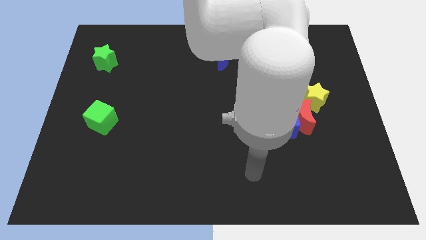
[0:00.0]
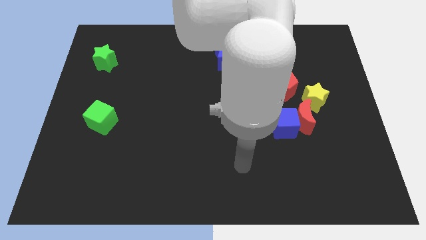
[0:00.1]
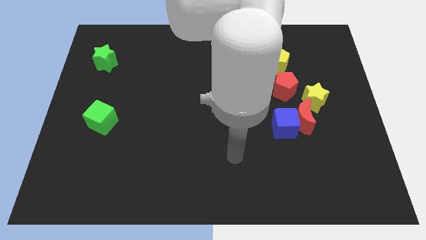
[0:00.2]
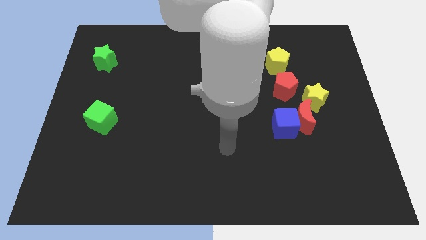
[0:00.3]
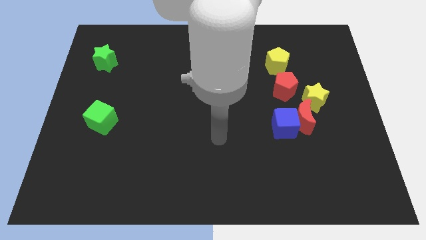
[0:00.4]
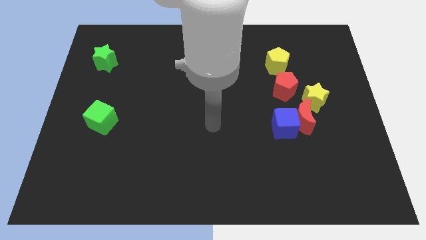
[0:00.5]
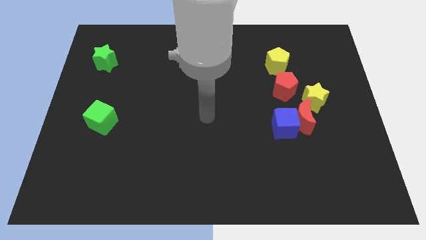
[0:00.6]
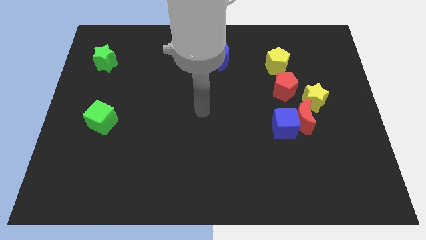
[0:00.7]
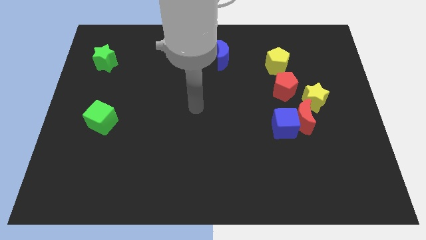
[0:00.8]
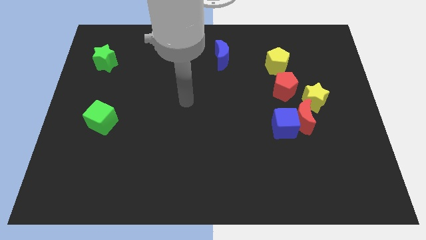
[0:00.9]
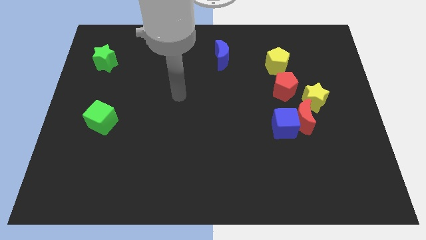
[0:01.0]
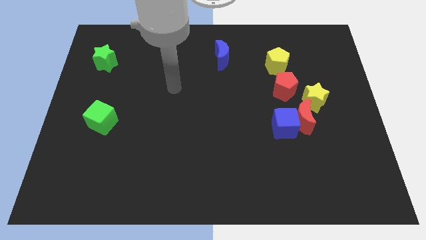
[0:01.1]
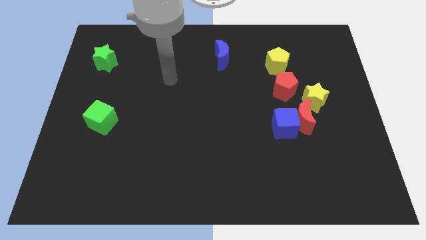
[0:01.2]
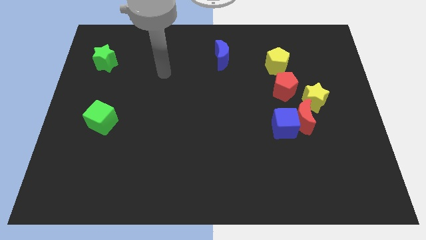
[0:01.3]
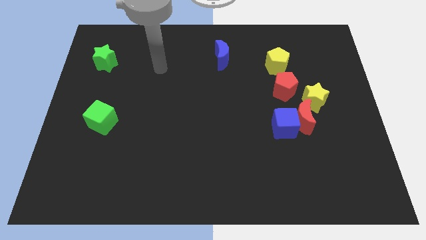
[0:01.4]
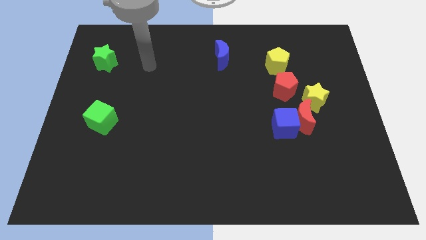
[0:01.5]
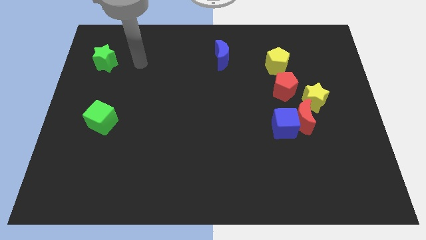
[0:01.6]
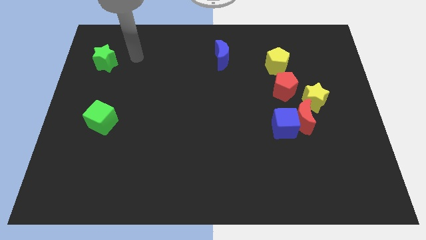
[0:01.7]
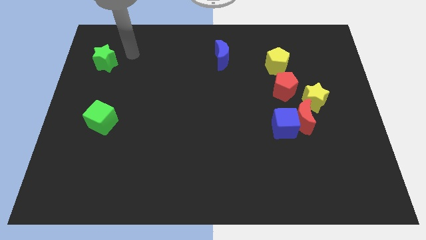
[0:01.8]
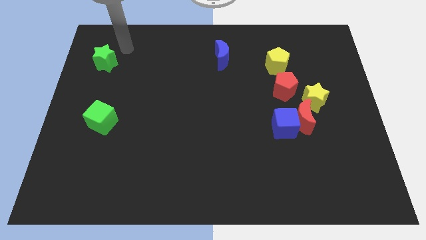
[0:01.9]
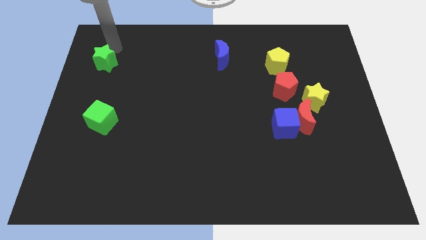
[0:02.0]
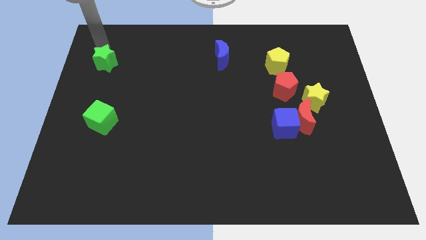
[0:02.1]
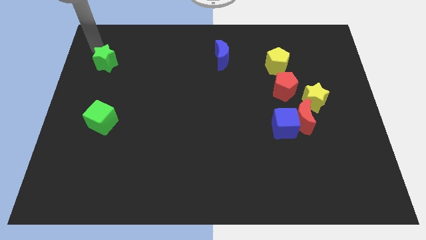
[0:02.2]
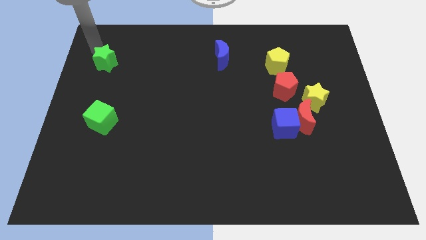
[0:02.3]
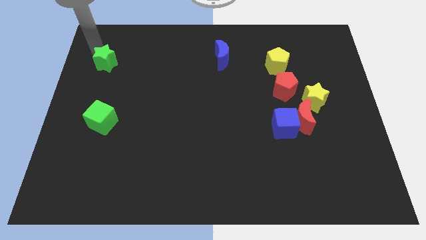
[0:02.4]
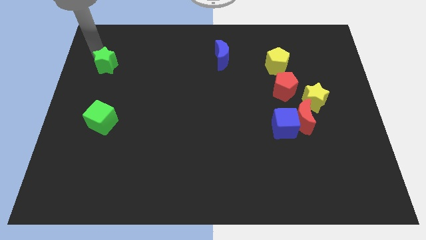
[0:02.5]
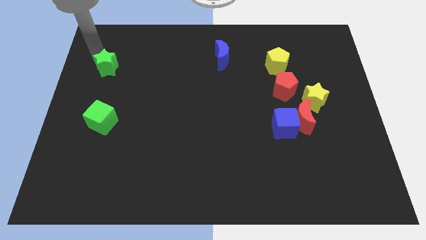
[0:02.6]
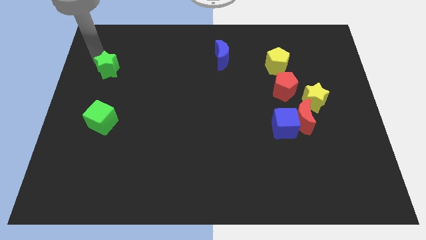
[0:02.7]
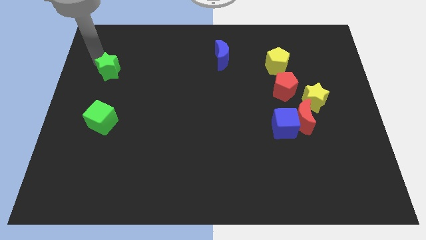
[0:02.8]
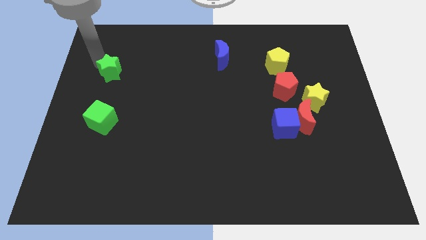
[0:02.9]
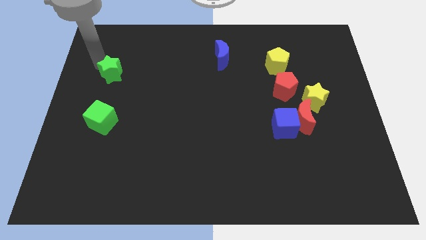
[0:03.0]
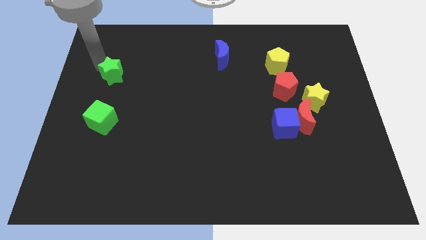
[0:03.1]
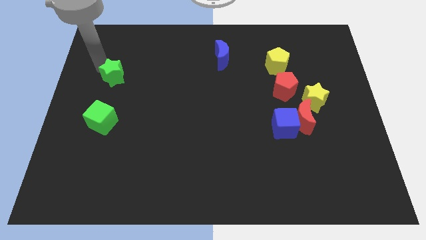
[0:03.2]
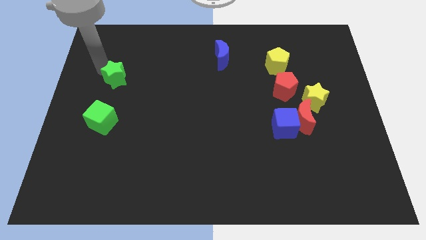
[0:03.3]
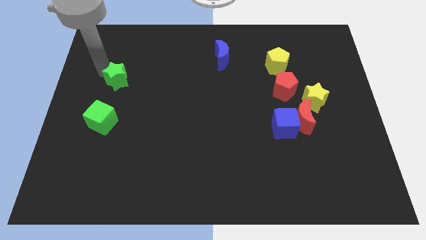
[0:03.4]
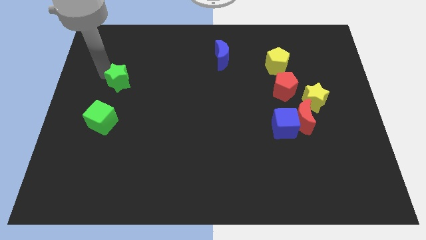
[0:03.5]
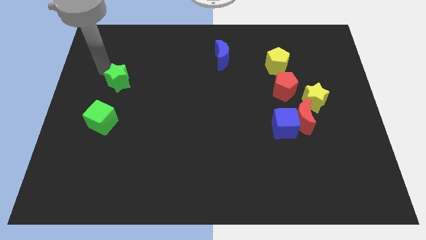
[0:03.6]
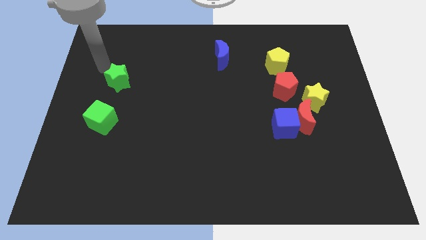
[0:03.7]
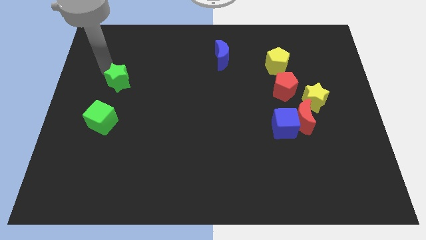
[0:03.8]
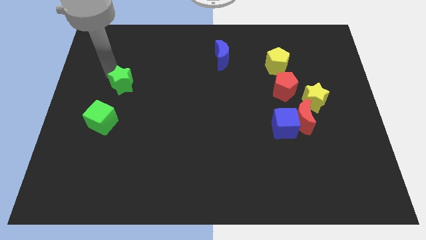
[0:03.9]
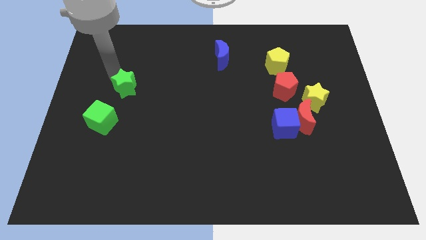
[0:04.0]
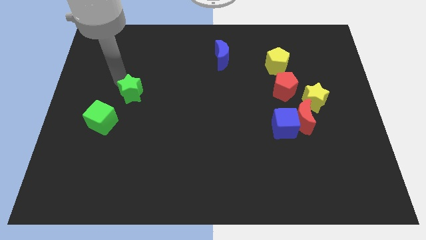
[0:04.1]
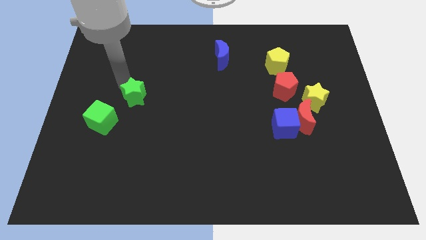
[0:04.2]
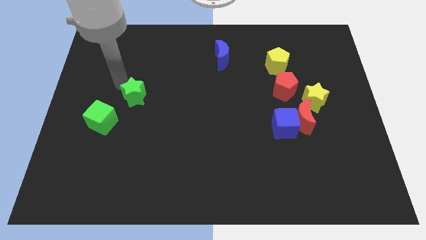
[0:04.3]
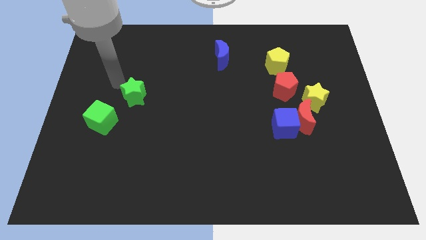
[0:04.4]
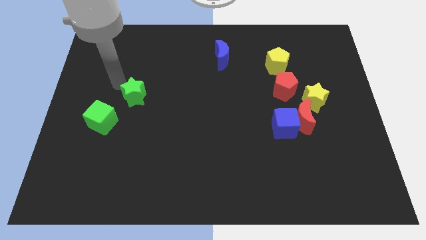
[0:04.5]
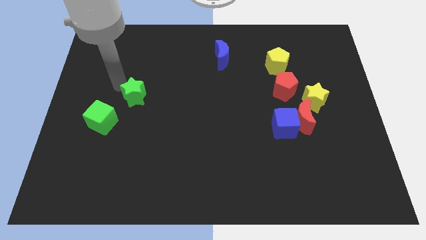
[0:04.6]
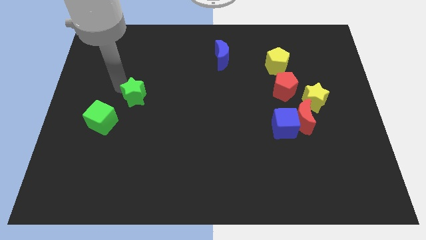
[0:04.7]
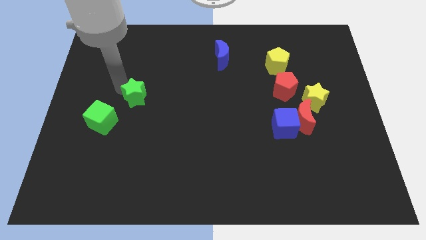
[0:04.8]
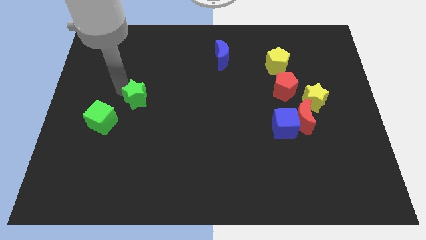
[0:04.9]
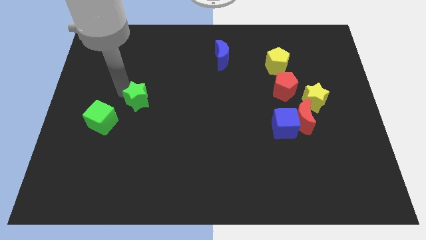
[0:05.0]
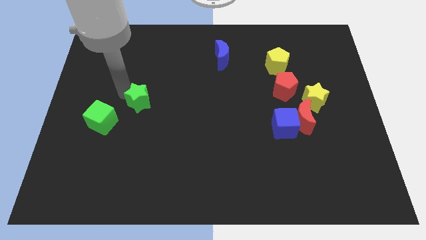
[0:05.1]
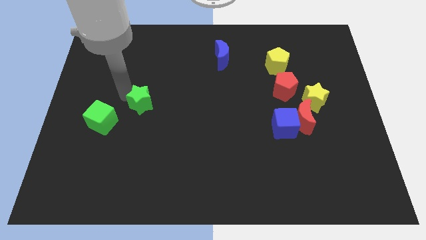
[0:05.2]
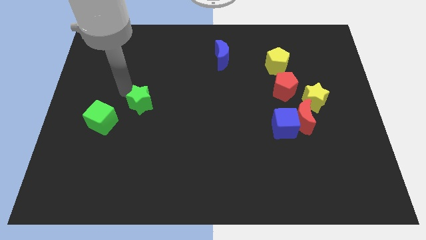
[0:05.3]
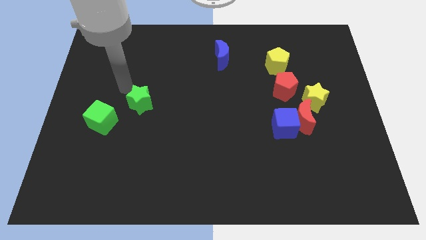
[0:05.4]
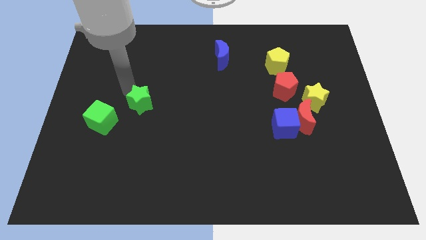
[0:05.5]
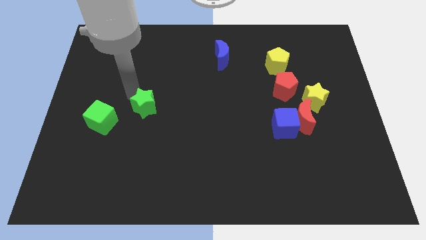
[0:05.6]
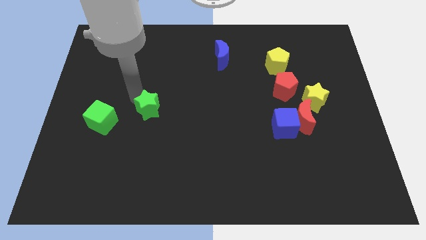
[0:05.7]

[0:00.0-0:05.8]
push the green star downwards and right diagonally

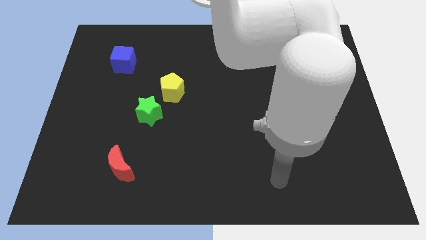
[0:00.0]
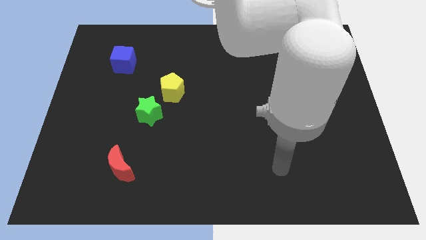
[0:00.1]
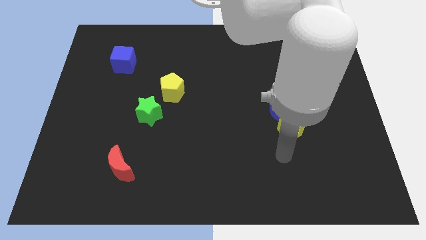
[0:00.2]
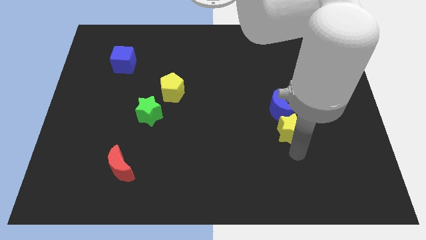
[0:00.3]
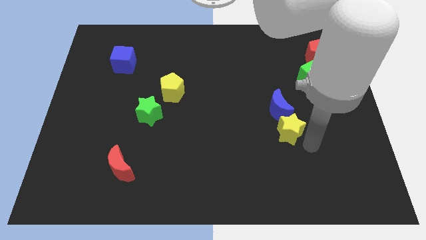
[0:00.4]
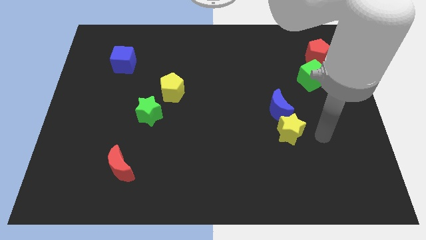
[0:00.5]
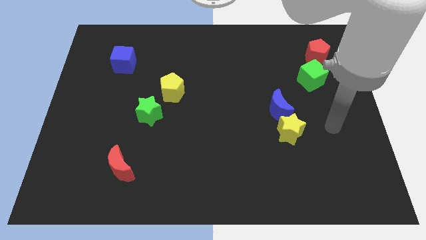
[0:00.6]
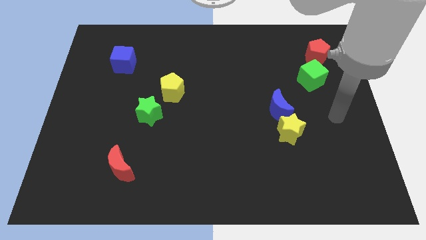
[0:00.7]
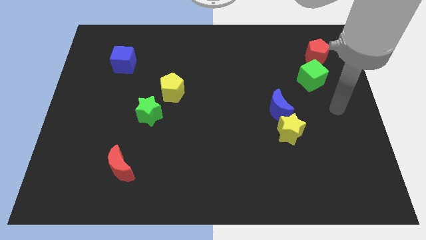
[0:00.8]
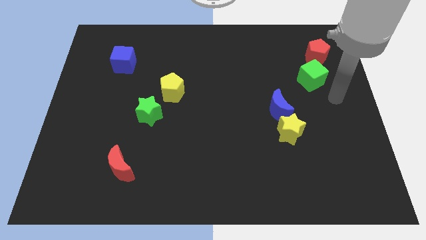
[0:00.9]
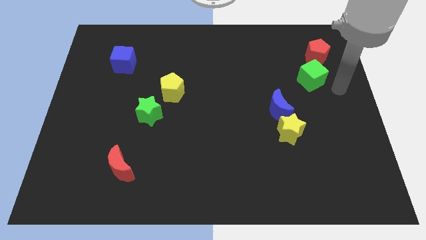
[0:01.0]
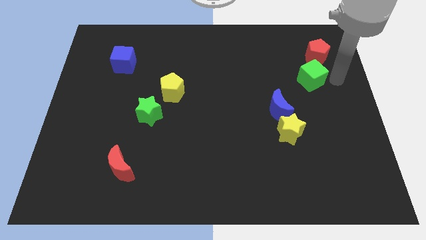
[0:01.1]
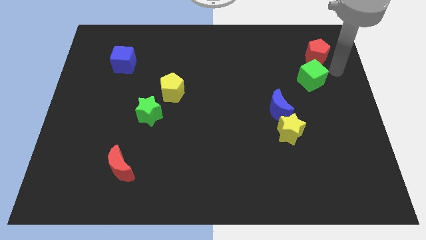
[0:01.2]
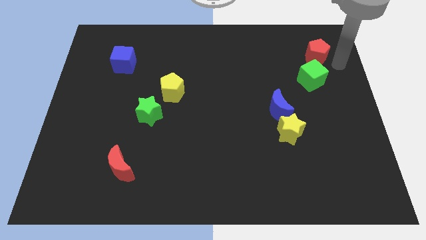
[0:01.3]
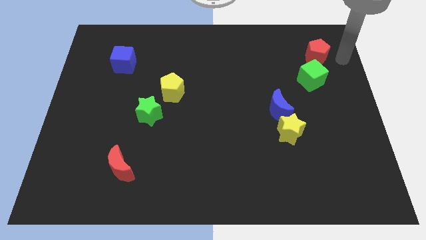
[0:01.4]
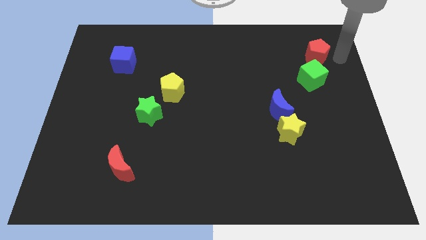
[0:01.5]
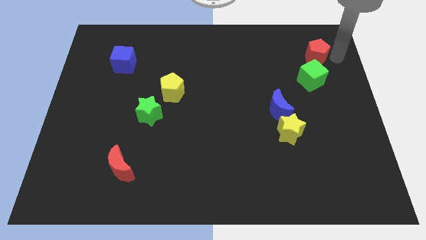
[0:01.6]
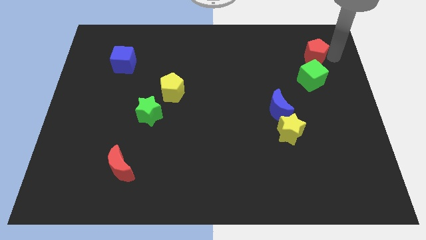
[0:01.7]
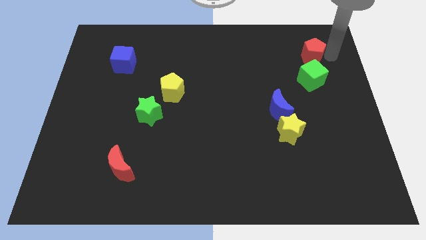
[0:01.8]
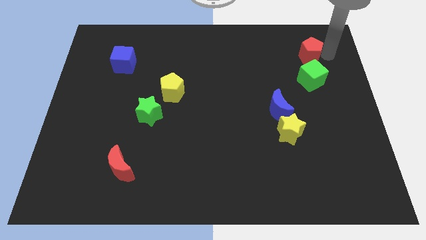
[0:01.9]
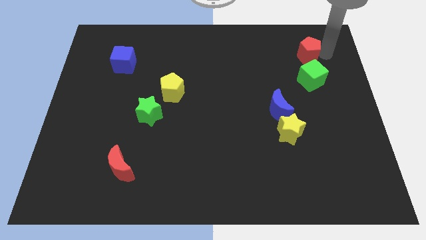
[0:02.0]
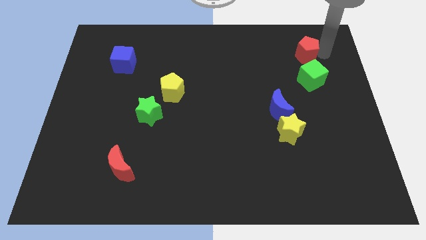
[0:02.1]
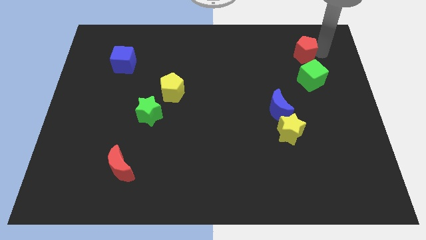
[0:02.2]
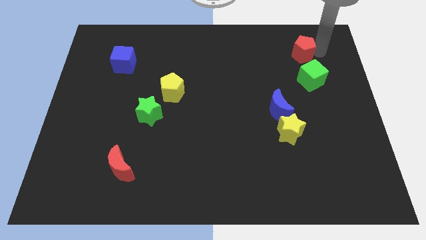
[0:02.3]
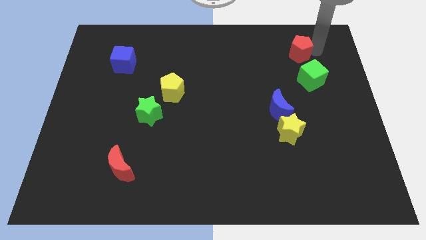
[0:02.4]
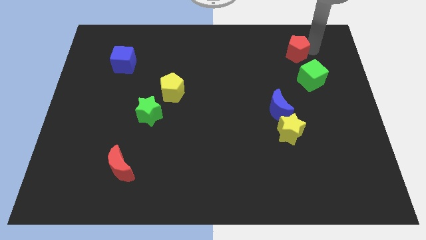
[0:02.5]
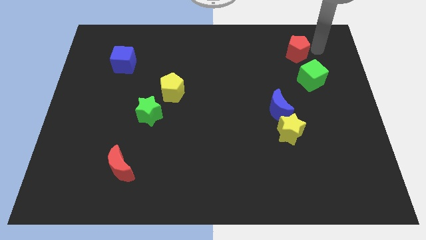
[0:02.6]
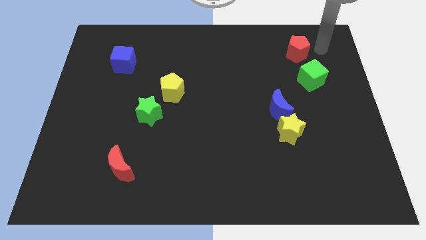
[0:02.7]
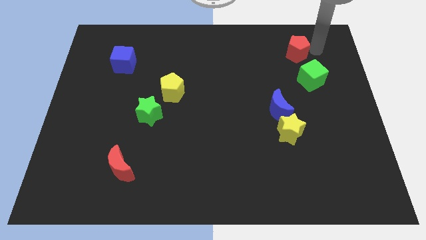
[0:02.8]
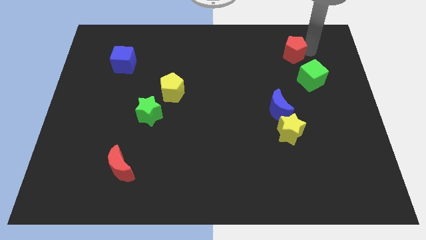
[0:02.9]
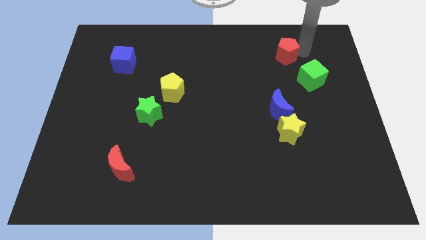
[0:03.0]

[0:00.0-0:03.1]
slightly move the red pentagon to the left
